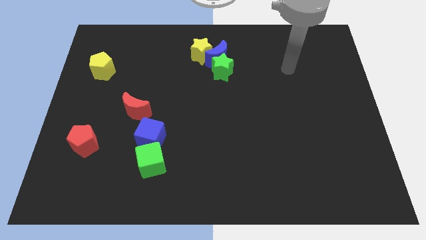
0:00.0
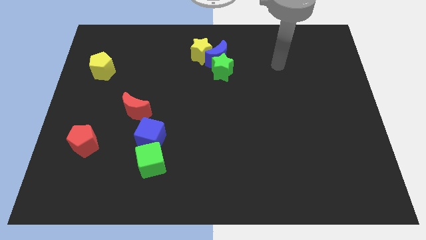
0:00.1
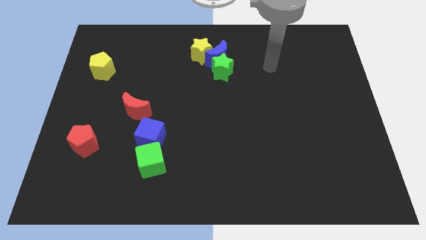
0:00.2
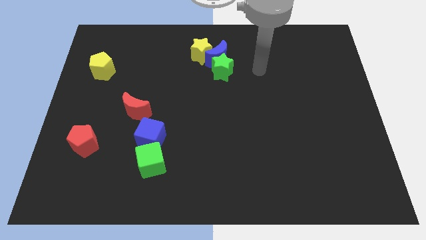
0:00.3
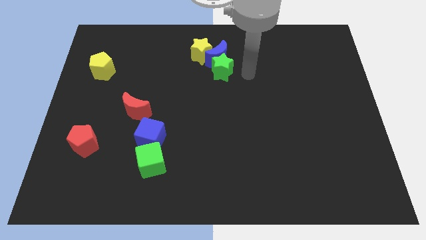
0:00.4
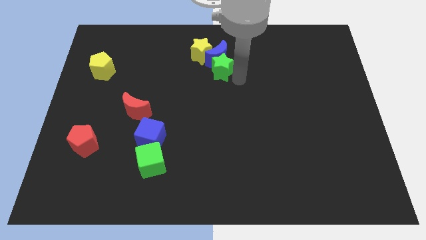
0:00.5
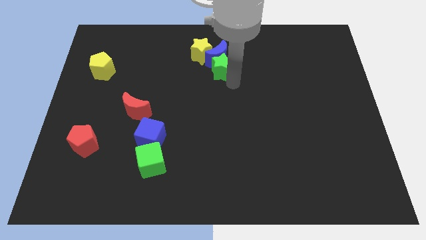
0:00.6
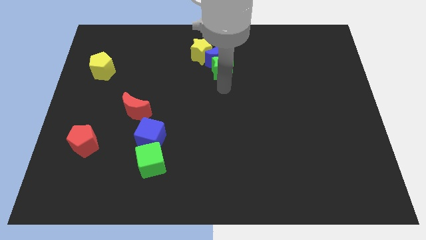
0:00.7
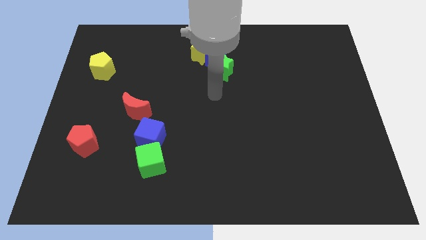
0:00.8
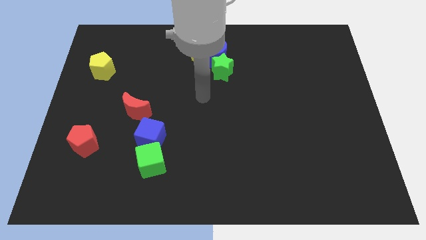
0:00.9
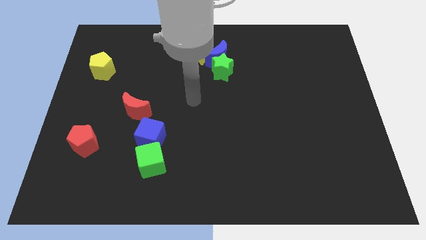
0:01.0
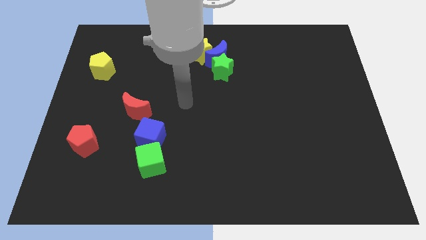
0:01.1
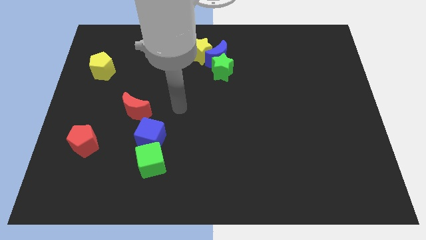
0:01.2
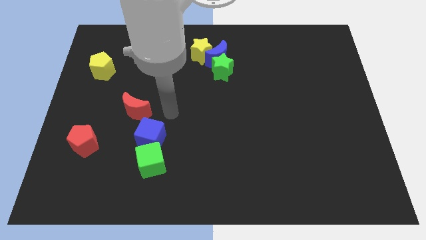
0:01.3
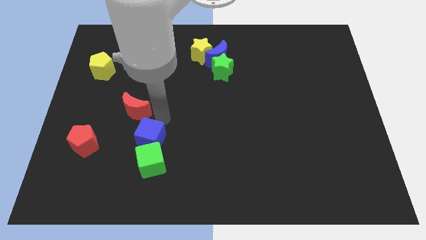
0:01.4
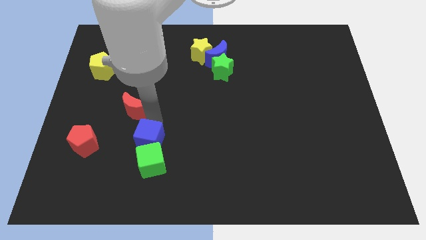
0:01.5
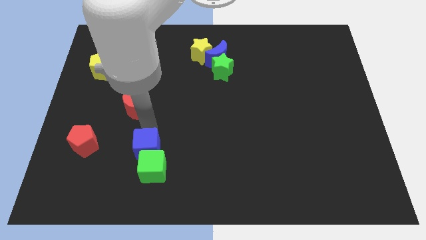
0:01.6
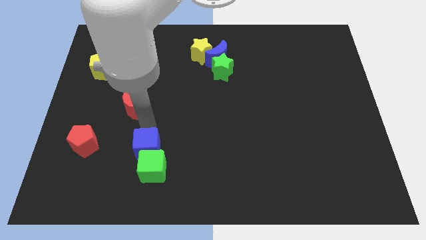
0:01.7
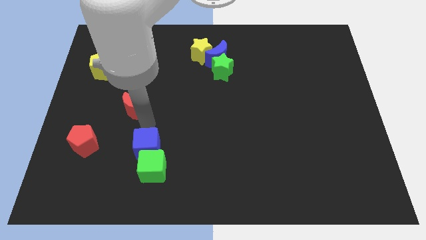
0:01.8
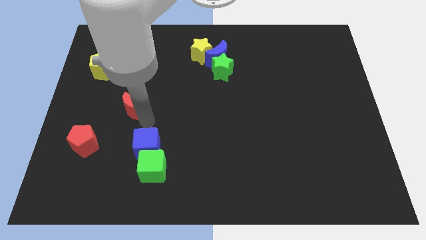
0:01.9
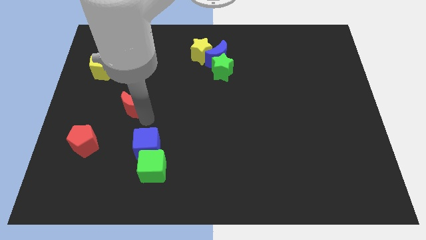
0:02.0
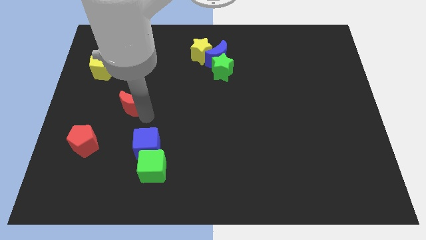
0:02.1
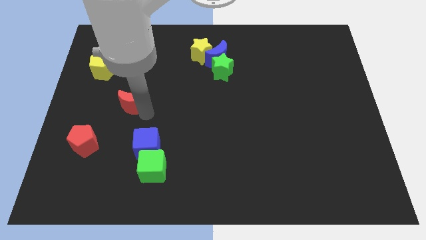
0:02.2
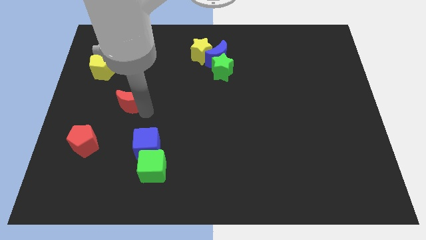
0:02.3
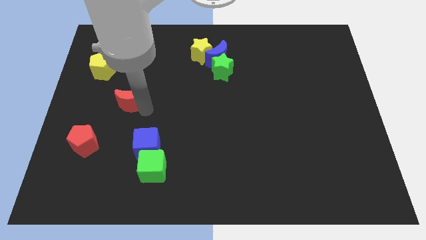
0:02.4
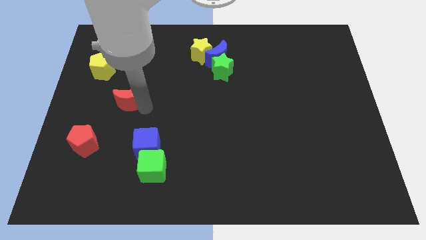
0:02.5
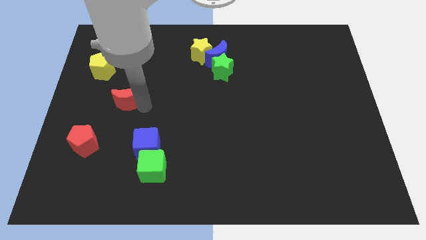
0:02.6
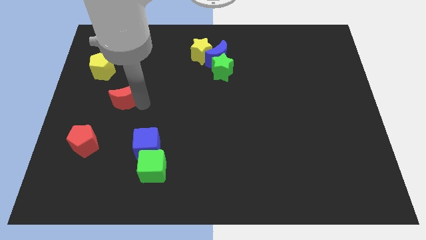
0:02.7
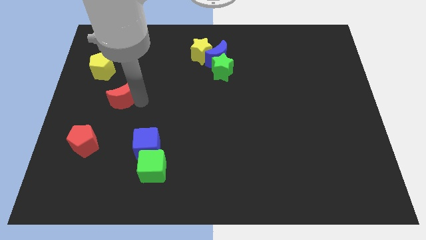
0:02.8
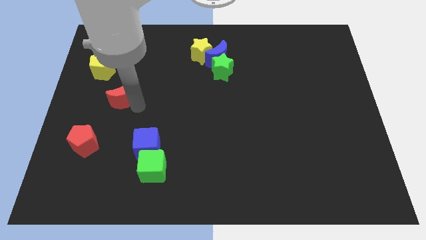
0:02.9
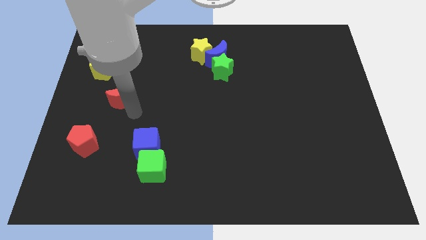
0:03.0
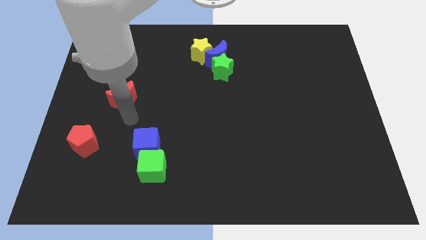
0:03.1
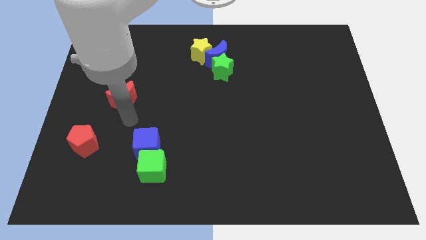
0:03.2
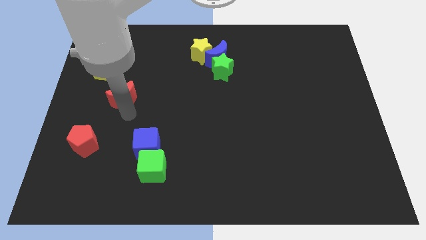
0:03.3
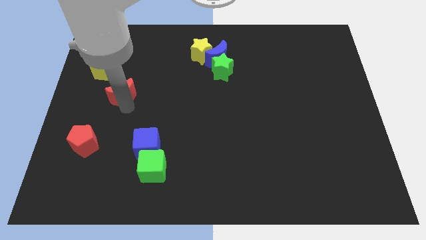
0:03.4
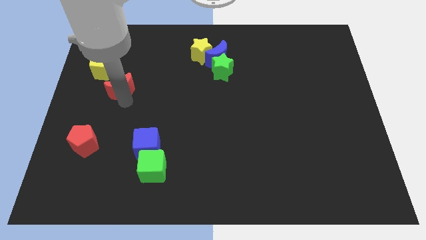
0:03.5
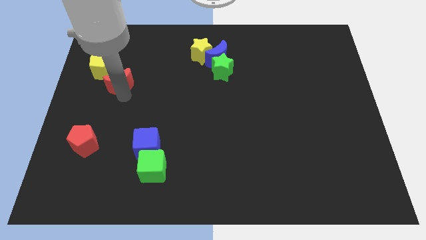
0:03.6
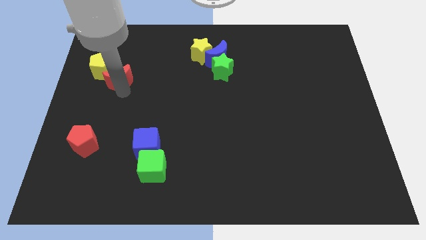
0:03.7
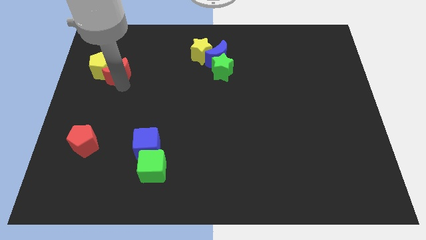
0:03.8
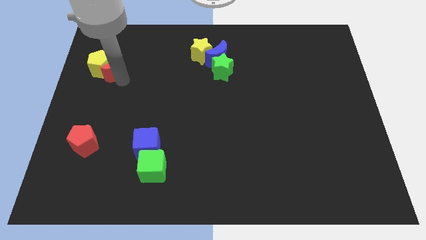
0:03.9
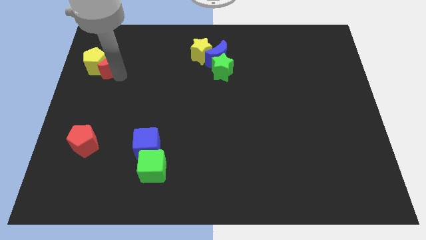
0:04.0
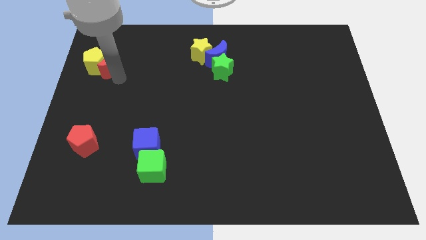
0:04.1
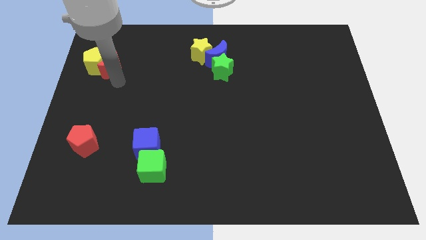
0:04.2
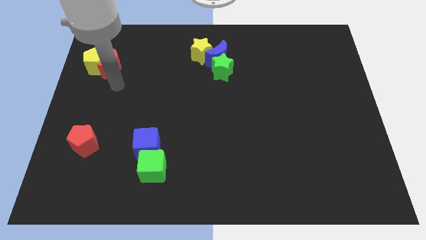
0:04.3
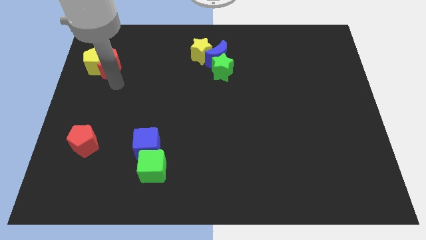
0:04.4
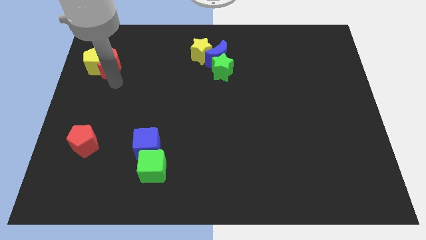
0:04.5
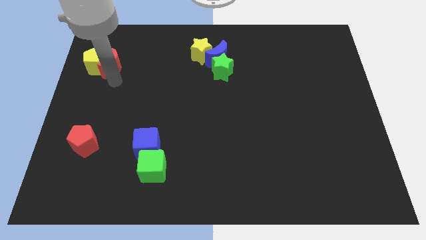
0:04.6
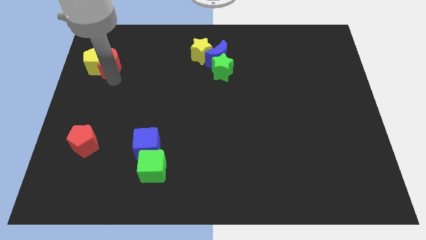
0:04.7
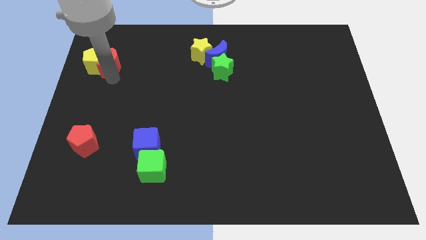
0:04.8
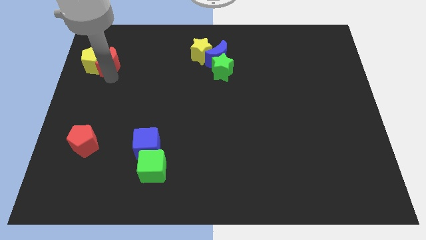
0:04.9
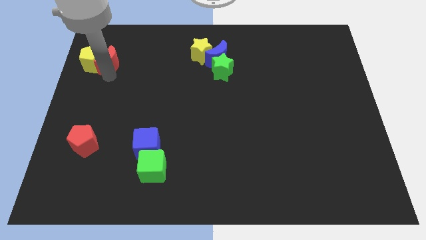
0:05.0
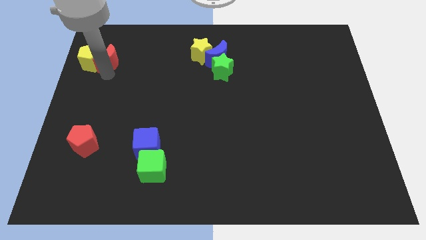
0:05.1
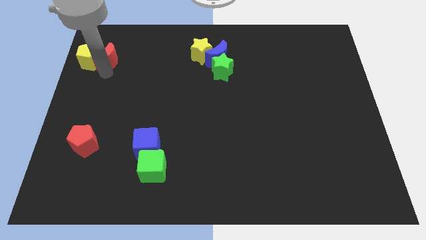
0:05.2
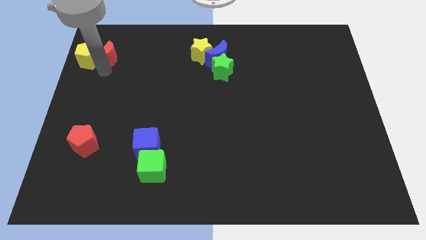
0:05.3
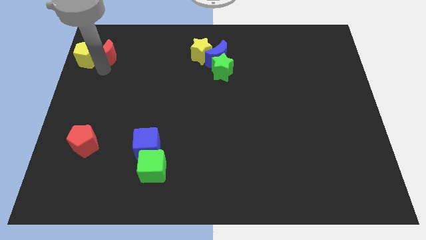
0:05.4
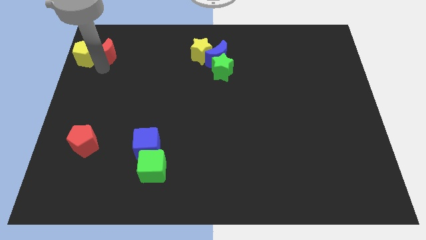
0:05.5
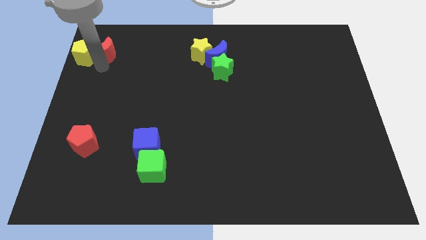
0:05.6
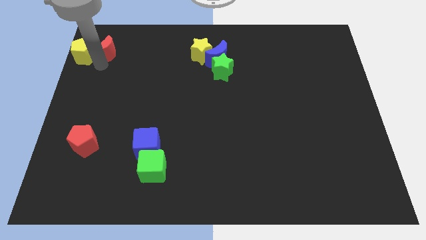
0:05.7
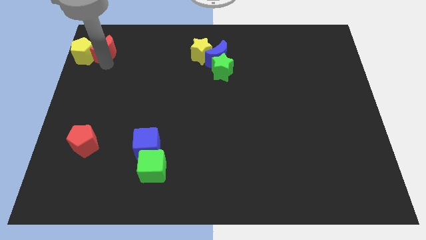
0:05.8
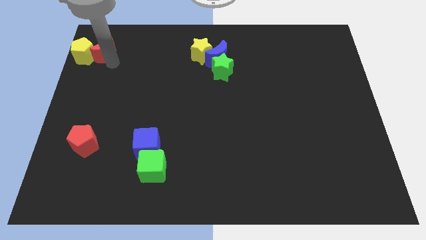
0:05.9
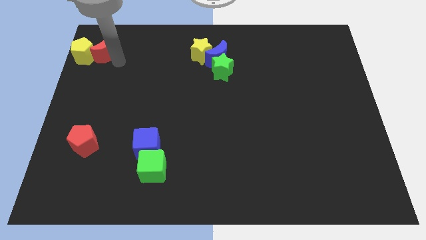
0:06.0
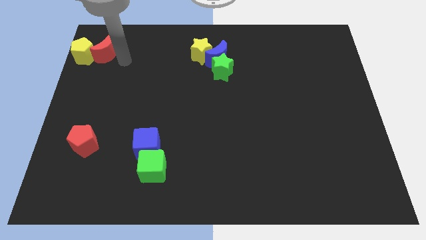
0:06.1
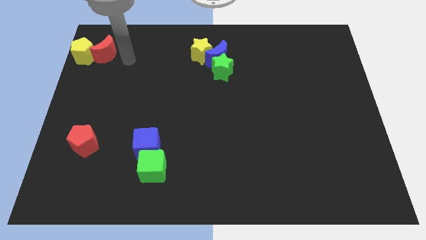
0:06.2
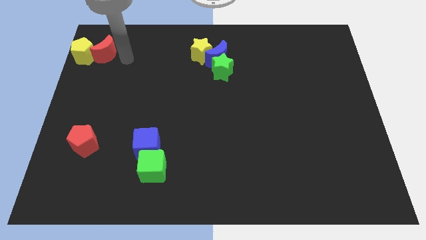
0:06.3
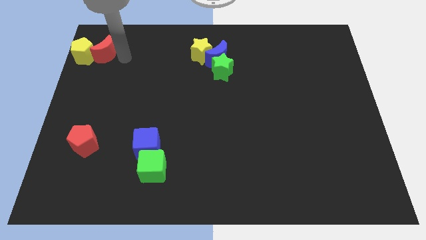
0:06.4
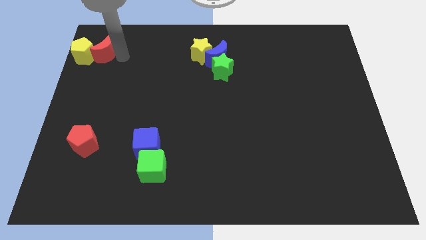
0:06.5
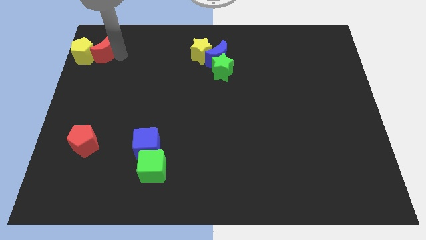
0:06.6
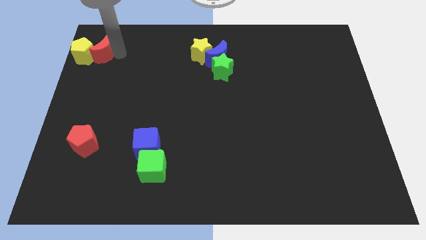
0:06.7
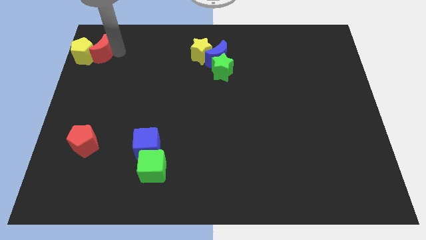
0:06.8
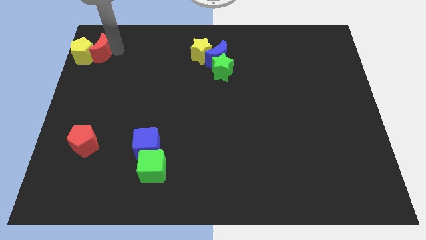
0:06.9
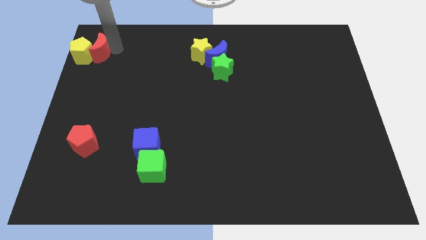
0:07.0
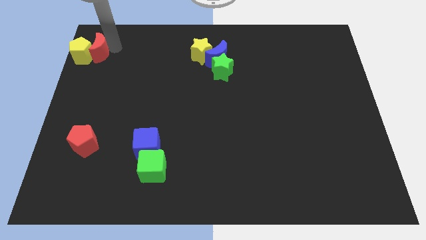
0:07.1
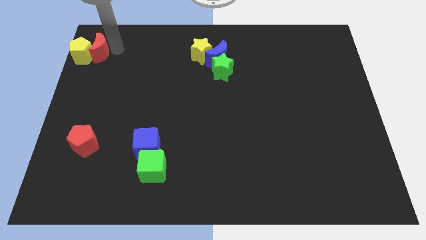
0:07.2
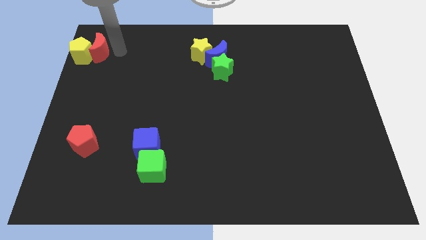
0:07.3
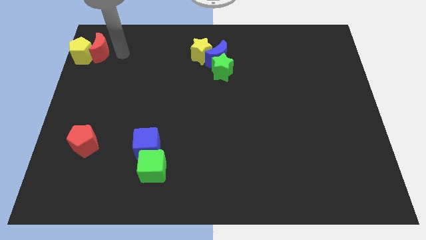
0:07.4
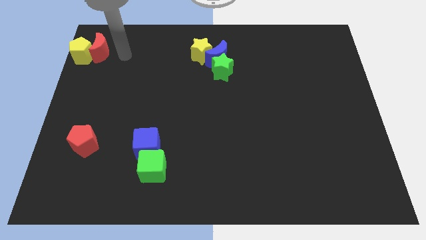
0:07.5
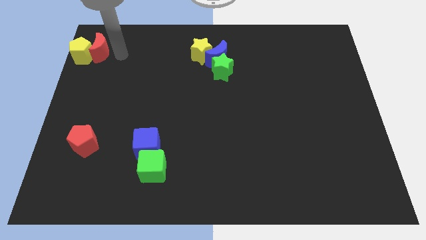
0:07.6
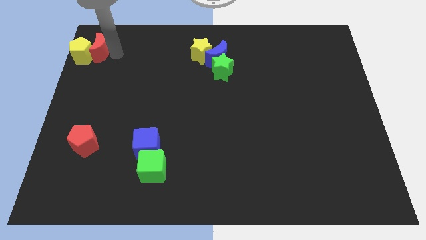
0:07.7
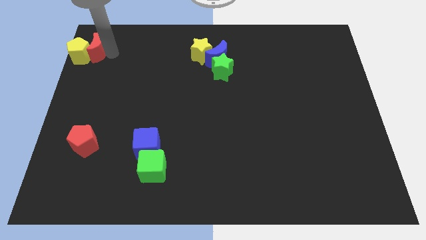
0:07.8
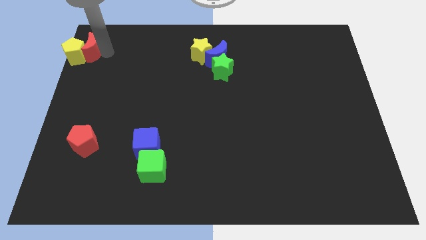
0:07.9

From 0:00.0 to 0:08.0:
move the red moon to the top left of the board
